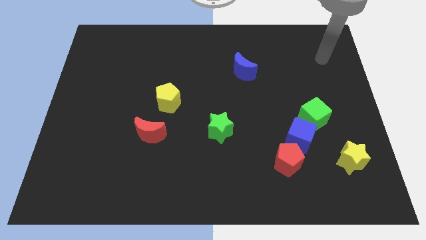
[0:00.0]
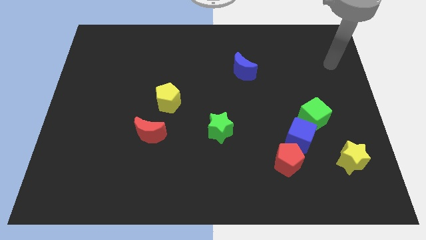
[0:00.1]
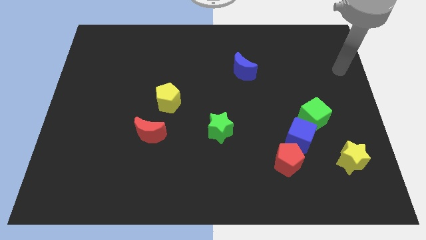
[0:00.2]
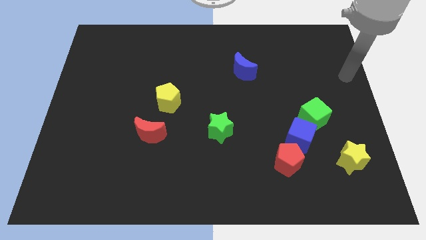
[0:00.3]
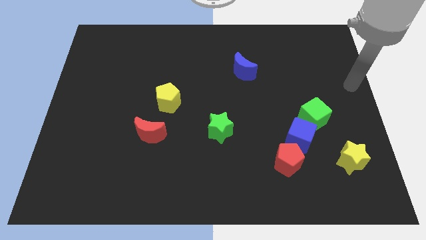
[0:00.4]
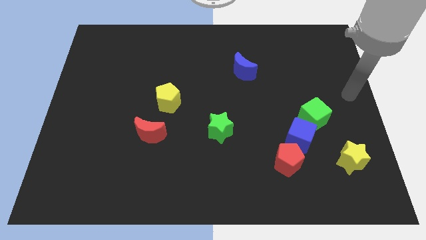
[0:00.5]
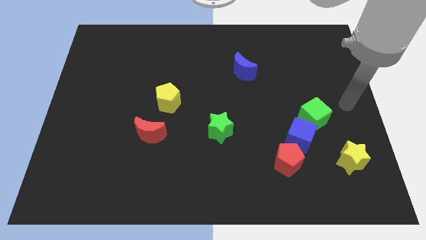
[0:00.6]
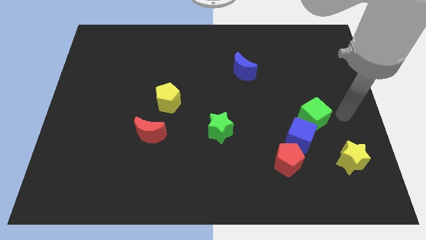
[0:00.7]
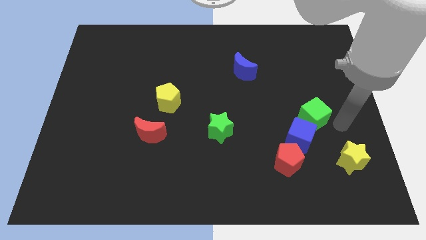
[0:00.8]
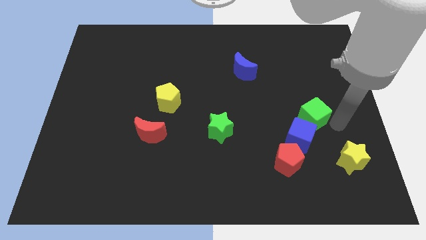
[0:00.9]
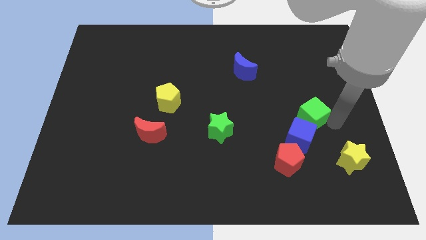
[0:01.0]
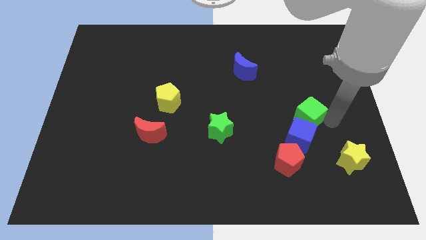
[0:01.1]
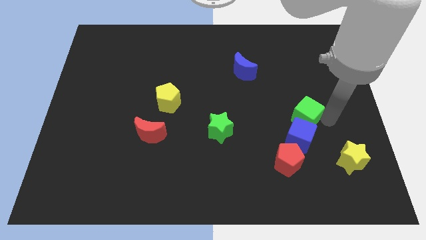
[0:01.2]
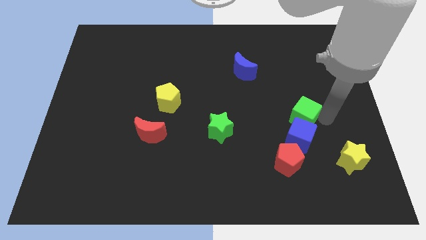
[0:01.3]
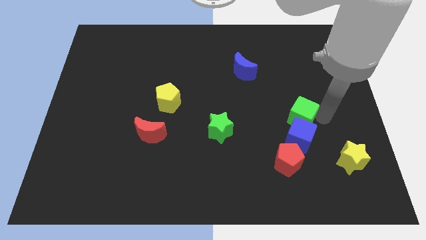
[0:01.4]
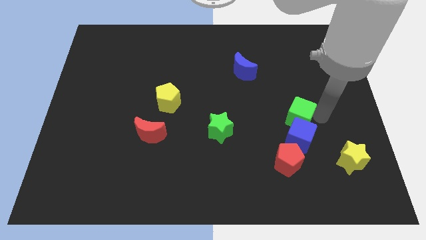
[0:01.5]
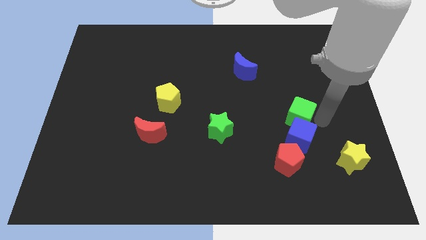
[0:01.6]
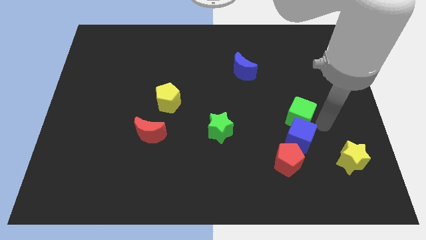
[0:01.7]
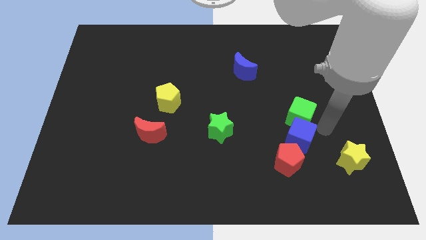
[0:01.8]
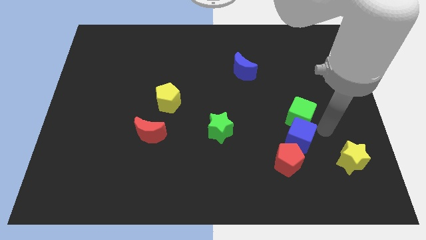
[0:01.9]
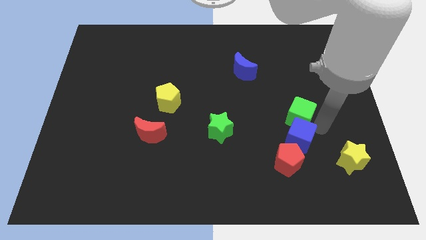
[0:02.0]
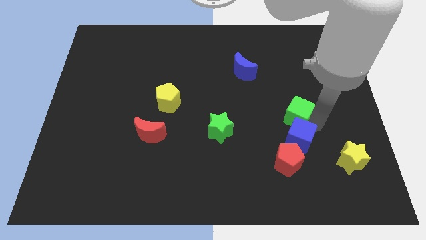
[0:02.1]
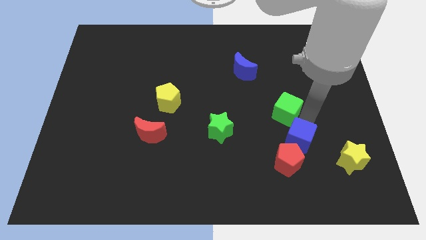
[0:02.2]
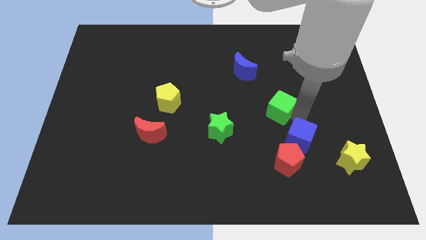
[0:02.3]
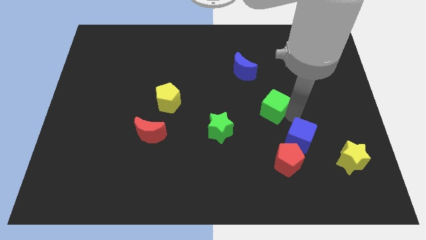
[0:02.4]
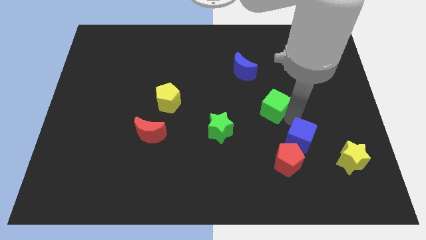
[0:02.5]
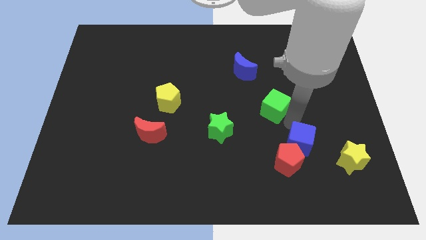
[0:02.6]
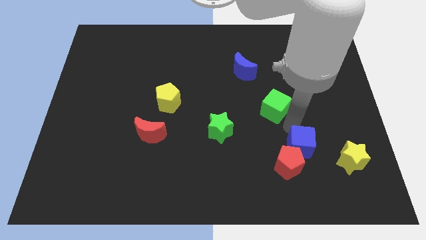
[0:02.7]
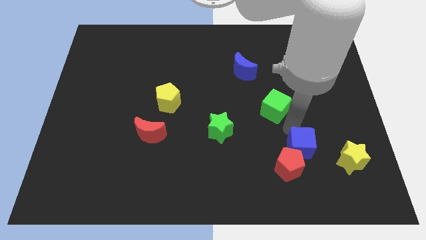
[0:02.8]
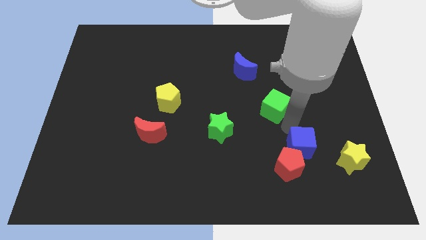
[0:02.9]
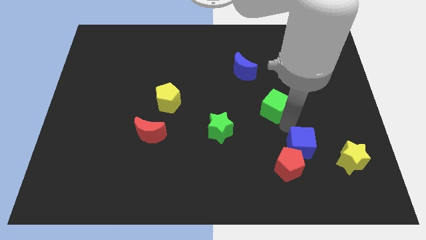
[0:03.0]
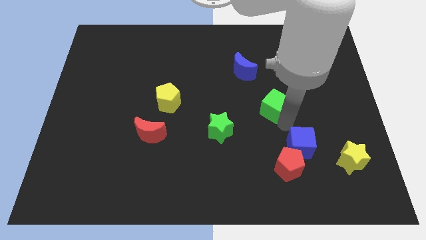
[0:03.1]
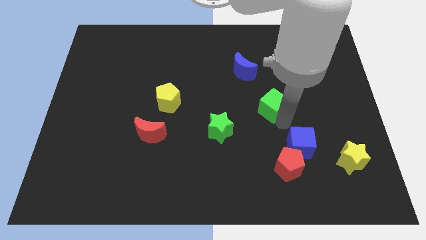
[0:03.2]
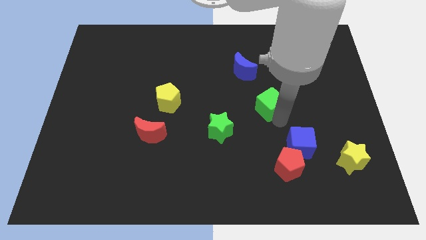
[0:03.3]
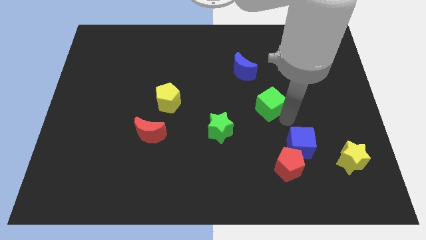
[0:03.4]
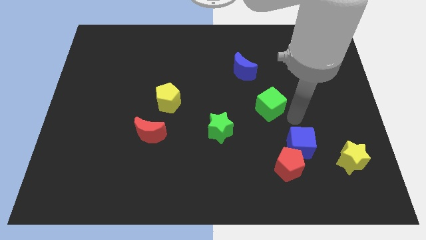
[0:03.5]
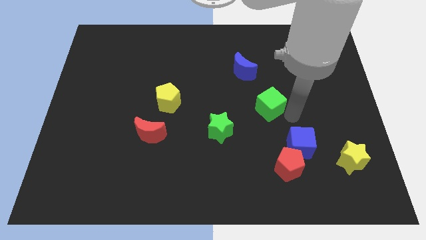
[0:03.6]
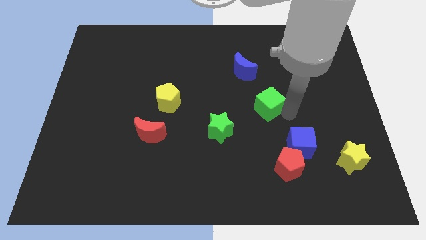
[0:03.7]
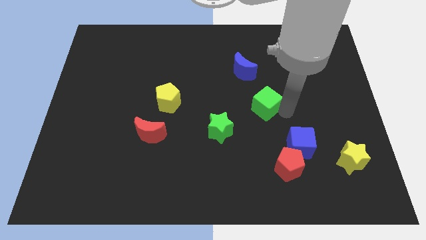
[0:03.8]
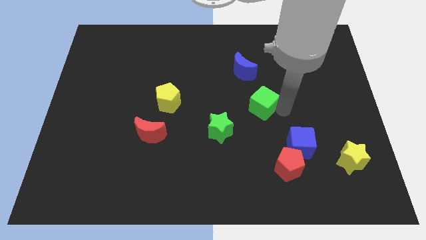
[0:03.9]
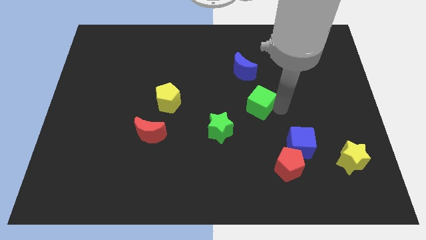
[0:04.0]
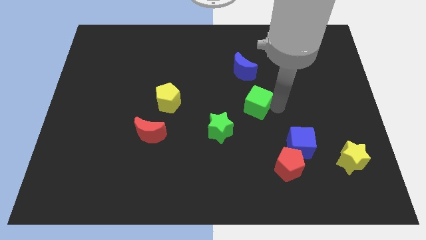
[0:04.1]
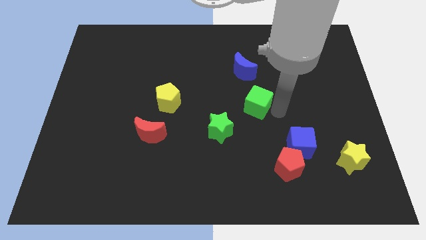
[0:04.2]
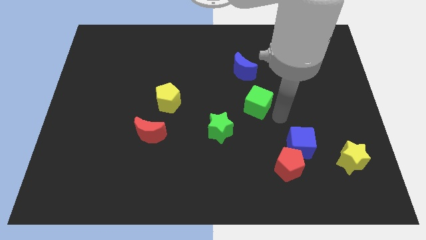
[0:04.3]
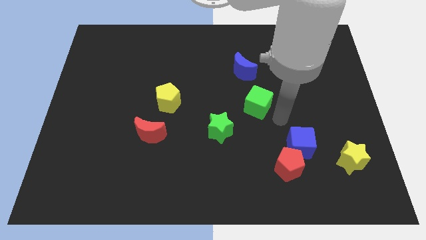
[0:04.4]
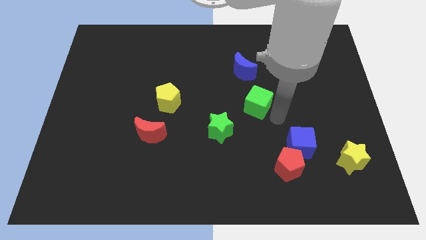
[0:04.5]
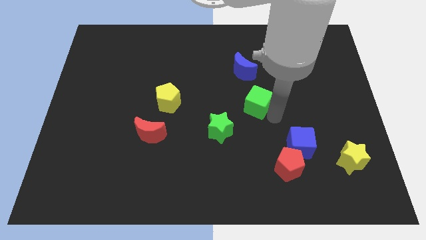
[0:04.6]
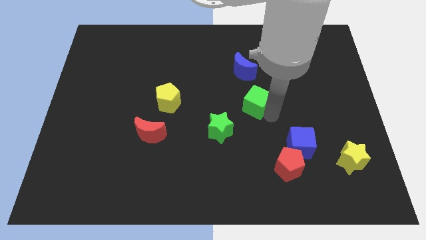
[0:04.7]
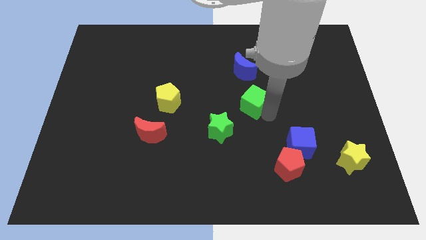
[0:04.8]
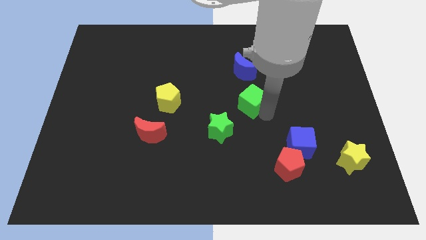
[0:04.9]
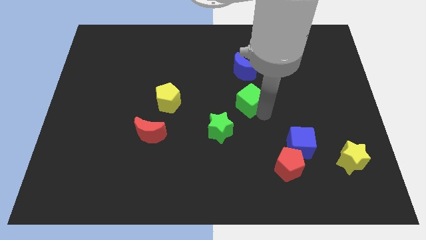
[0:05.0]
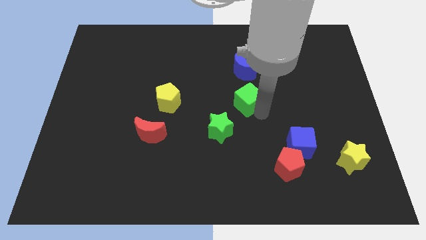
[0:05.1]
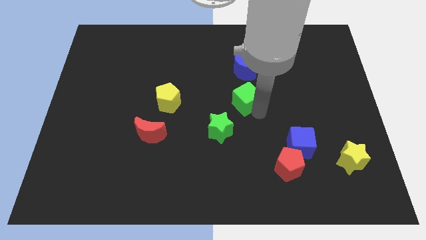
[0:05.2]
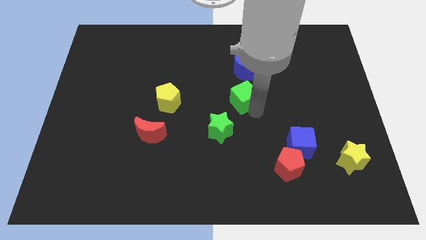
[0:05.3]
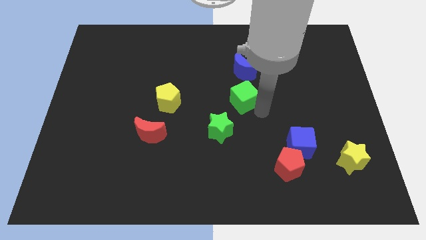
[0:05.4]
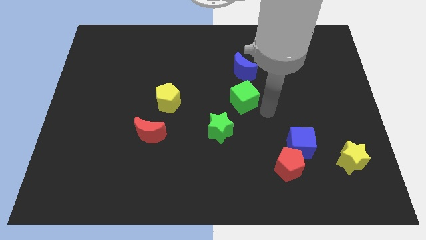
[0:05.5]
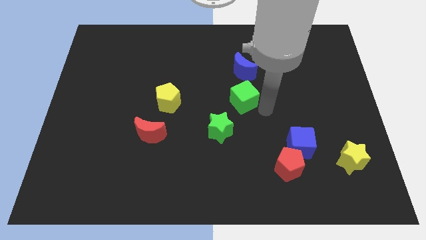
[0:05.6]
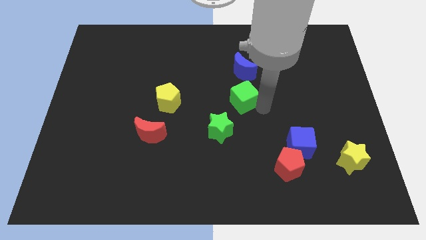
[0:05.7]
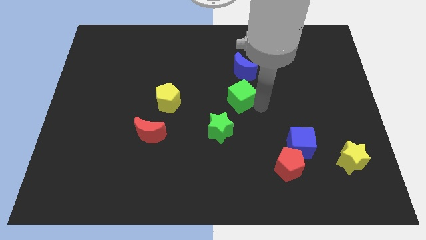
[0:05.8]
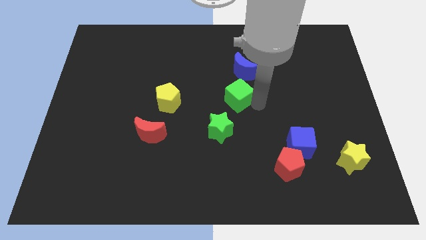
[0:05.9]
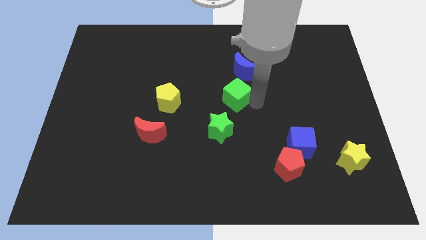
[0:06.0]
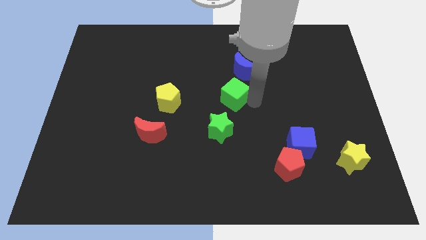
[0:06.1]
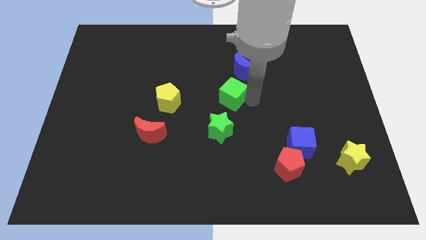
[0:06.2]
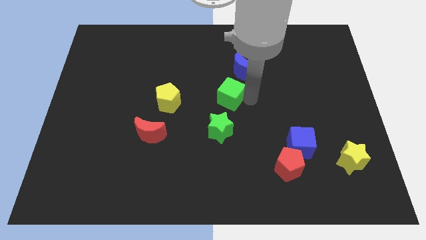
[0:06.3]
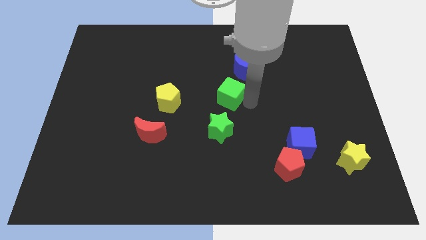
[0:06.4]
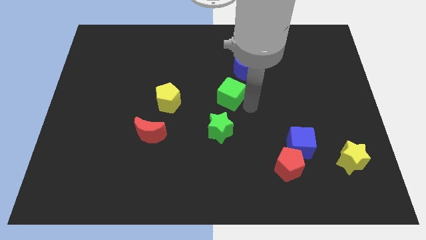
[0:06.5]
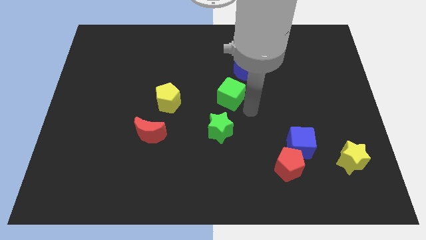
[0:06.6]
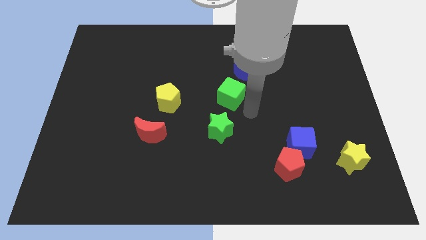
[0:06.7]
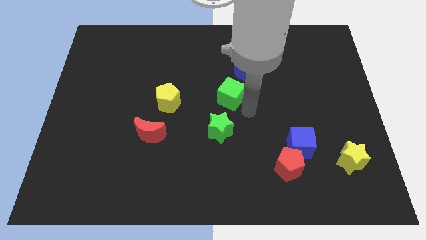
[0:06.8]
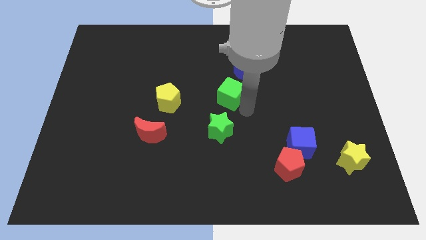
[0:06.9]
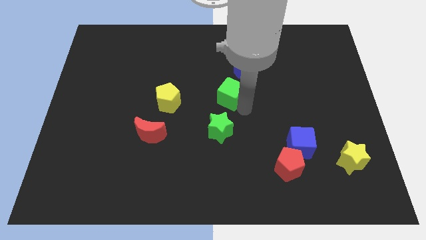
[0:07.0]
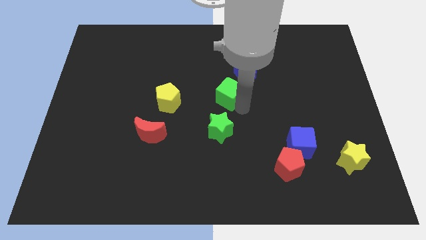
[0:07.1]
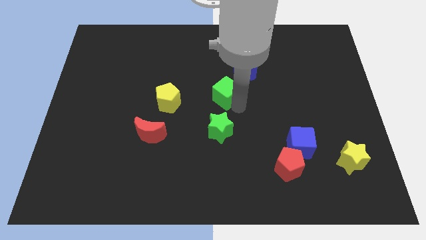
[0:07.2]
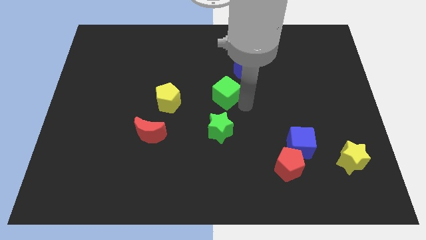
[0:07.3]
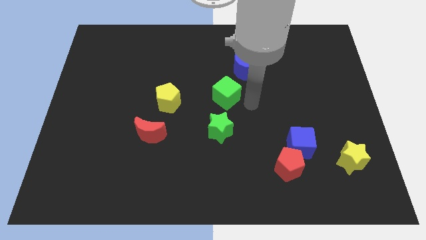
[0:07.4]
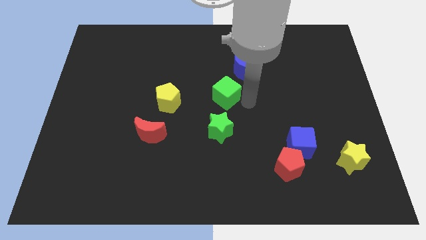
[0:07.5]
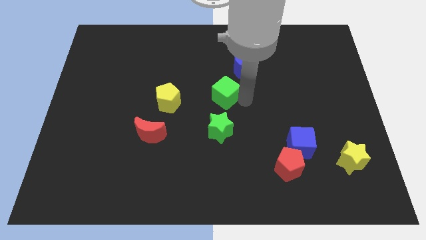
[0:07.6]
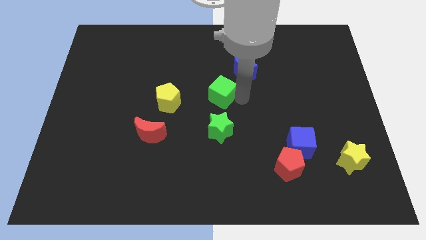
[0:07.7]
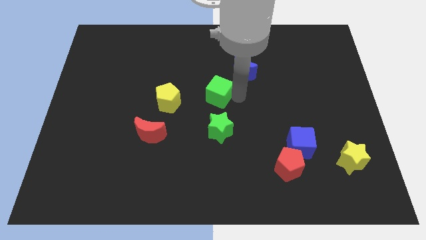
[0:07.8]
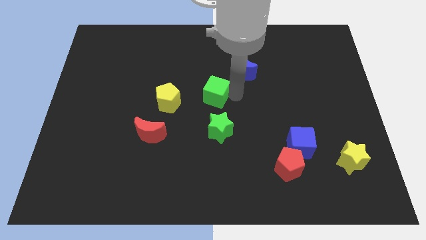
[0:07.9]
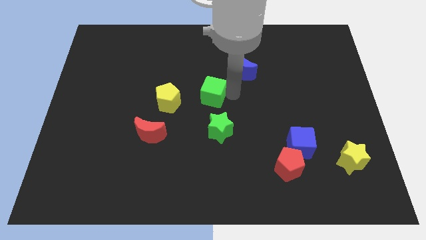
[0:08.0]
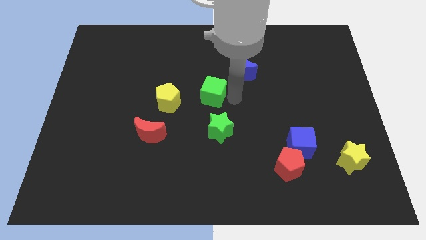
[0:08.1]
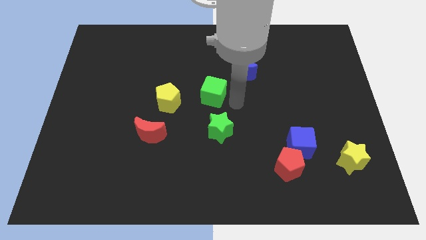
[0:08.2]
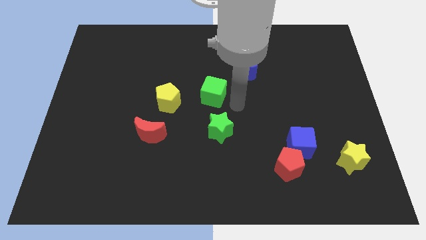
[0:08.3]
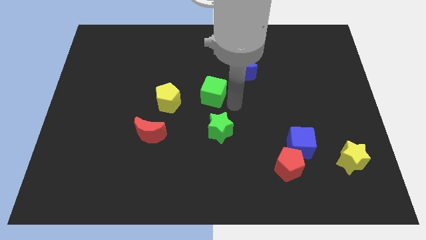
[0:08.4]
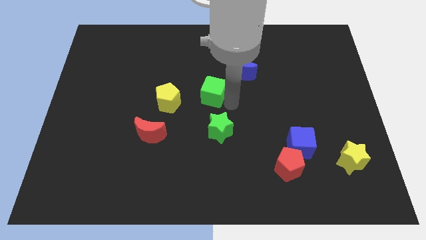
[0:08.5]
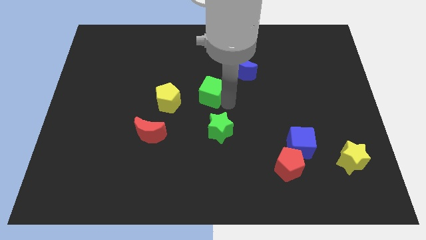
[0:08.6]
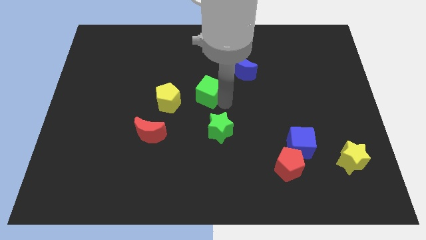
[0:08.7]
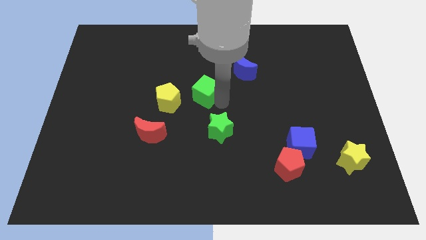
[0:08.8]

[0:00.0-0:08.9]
push the green cube to the top right of the yellow pentagon
